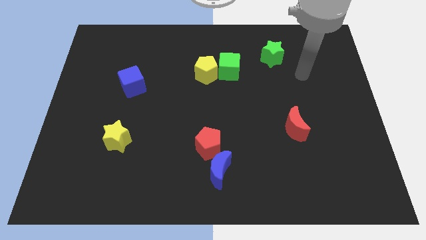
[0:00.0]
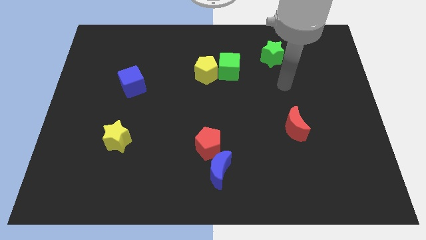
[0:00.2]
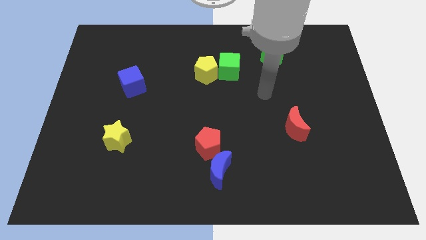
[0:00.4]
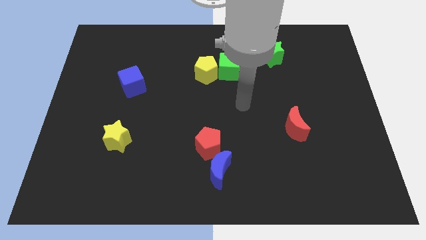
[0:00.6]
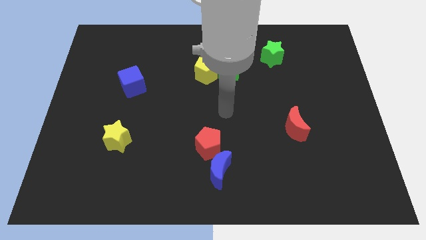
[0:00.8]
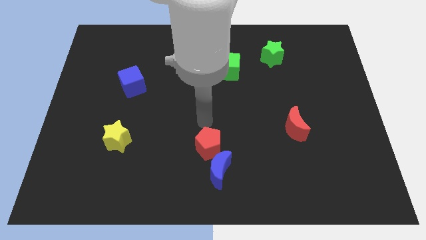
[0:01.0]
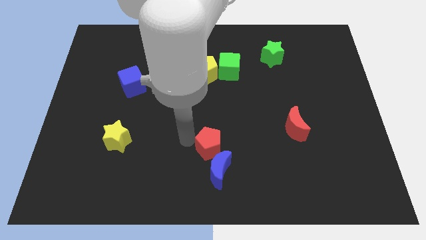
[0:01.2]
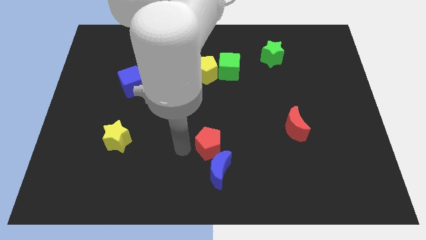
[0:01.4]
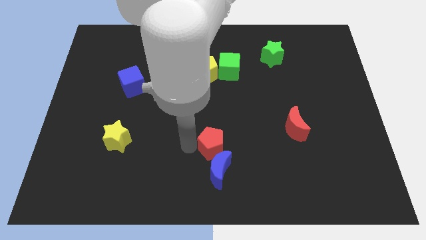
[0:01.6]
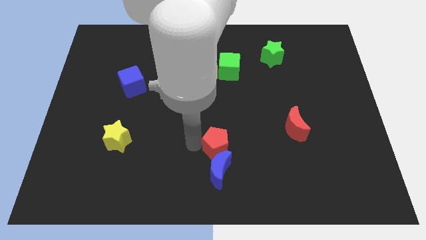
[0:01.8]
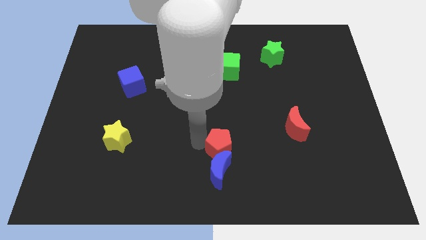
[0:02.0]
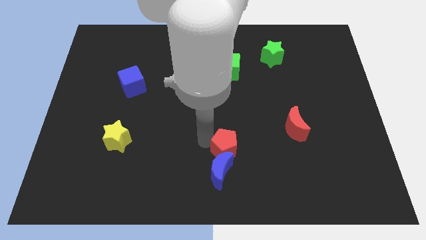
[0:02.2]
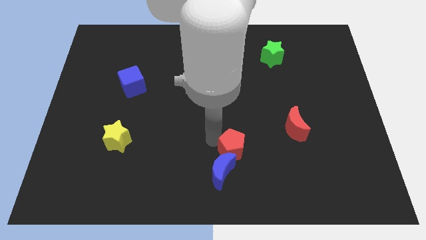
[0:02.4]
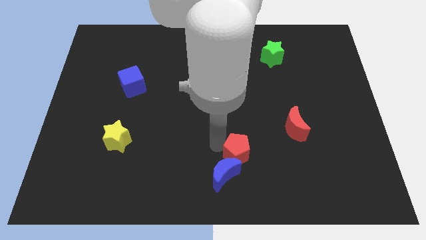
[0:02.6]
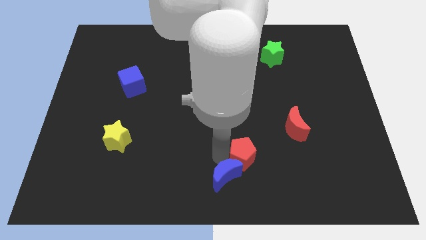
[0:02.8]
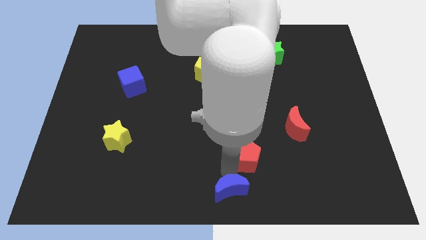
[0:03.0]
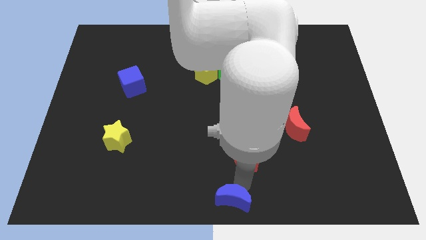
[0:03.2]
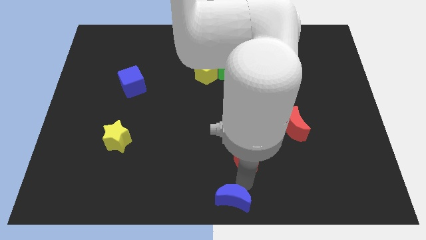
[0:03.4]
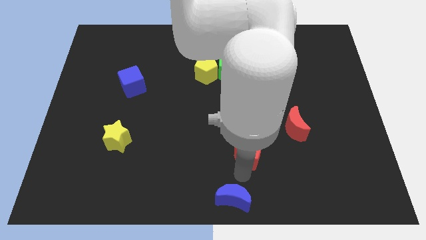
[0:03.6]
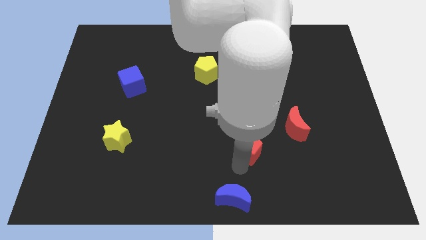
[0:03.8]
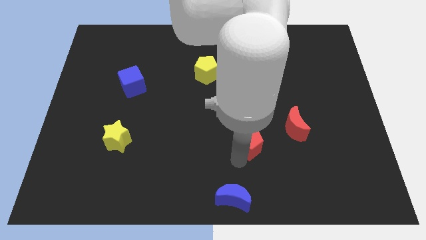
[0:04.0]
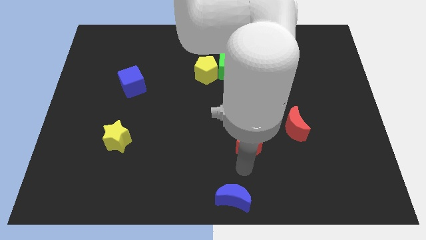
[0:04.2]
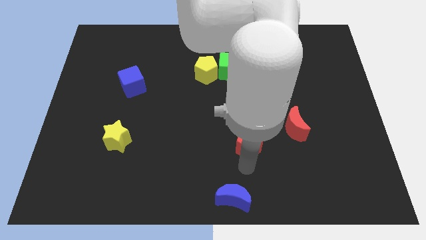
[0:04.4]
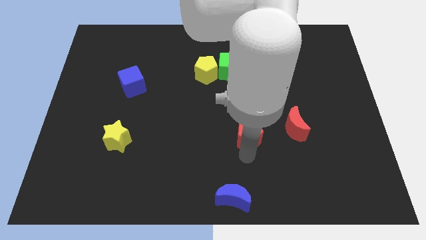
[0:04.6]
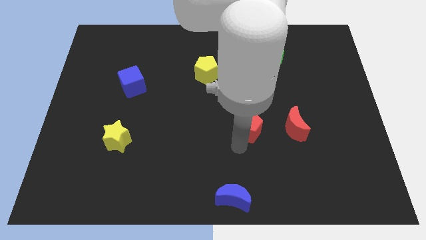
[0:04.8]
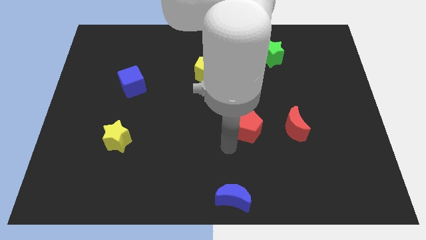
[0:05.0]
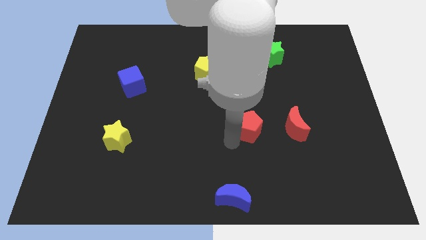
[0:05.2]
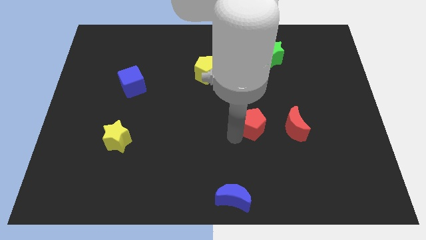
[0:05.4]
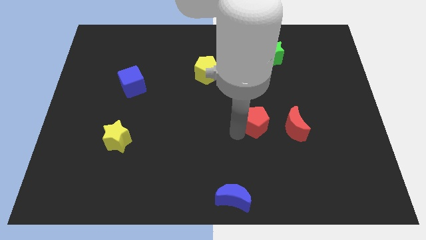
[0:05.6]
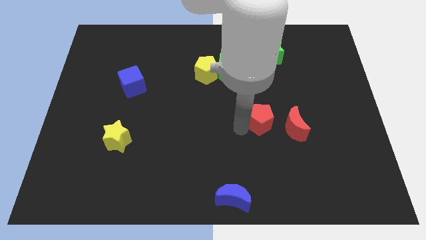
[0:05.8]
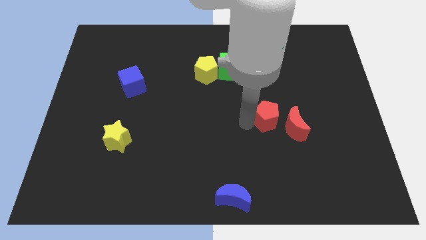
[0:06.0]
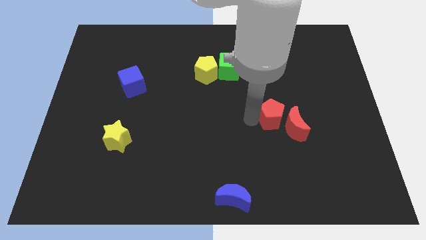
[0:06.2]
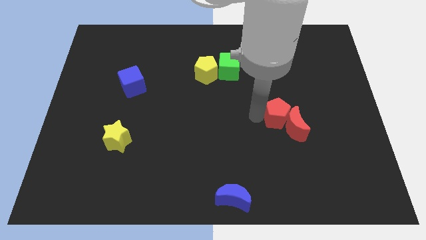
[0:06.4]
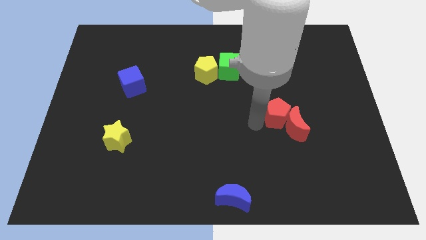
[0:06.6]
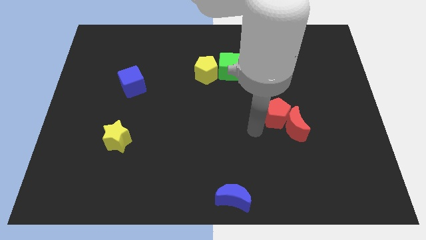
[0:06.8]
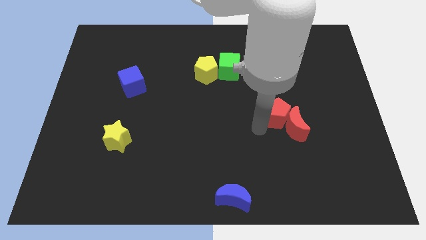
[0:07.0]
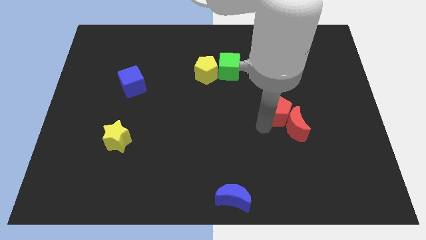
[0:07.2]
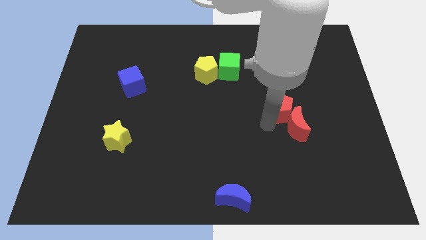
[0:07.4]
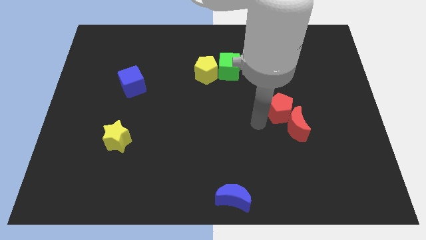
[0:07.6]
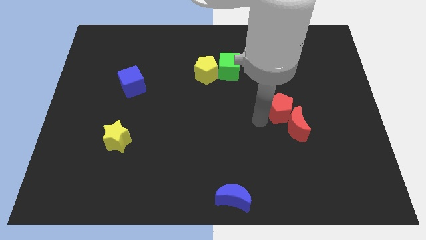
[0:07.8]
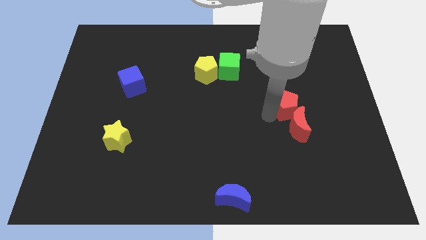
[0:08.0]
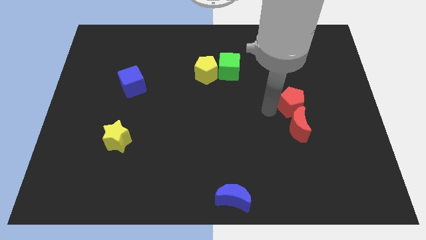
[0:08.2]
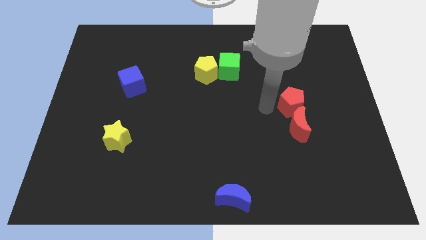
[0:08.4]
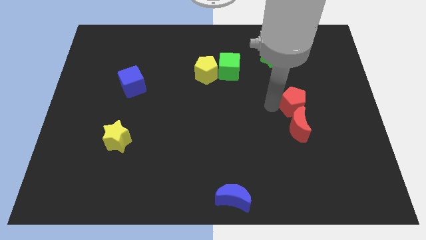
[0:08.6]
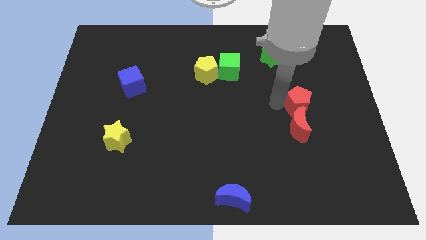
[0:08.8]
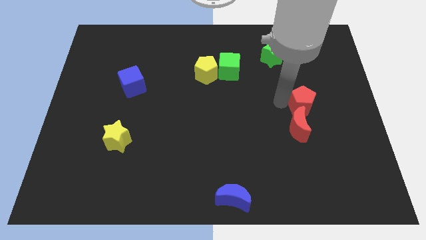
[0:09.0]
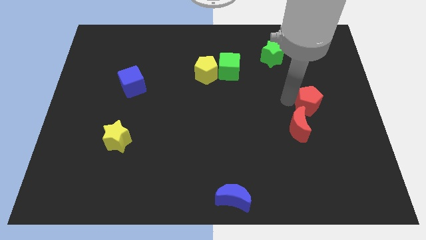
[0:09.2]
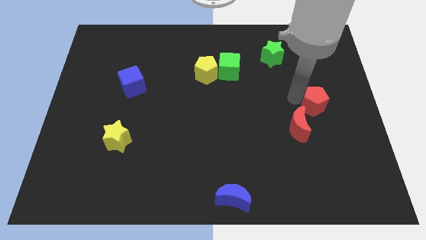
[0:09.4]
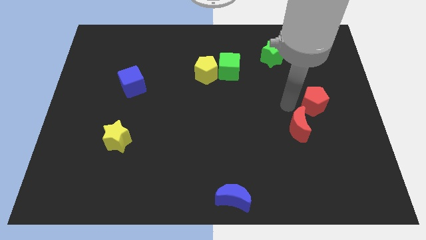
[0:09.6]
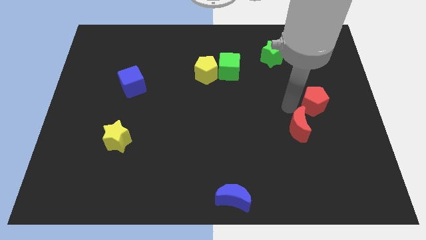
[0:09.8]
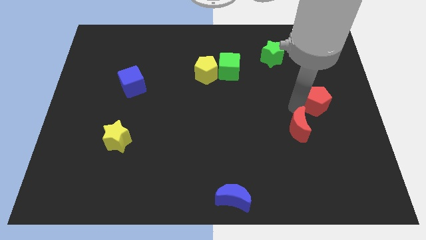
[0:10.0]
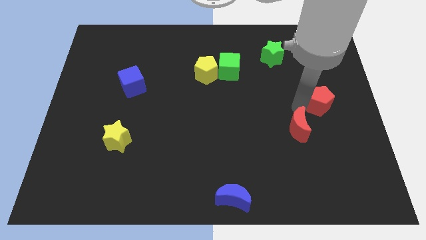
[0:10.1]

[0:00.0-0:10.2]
move the red pentagon to the right side

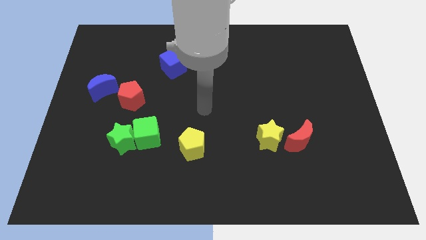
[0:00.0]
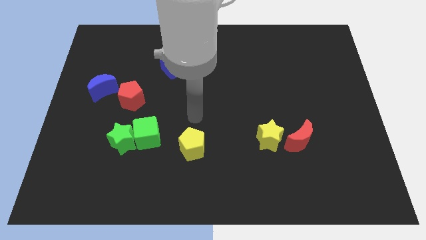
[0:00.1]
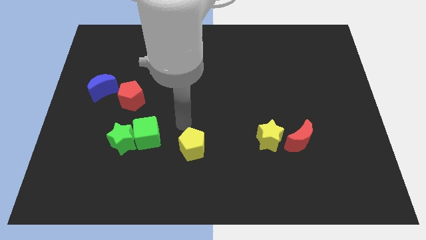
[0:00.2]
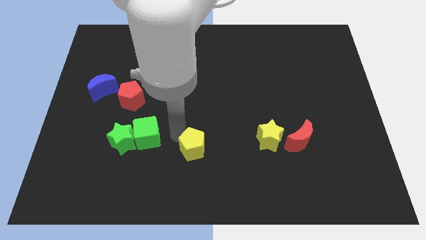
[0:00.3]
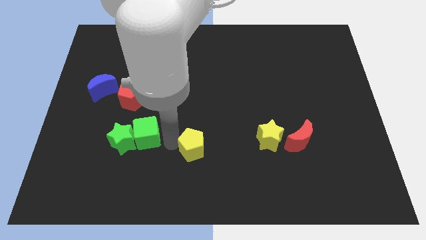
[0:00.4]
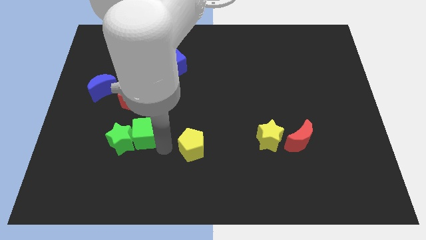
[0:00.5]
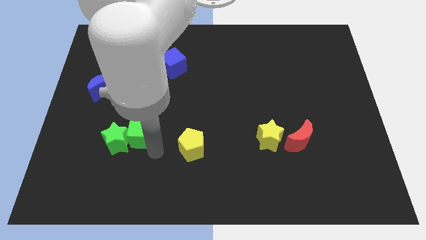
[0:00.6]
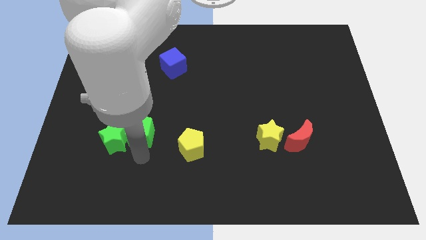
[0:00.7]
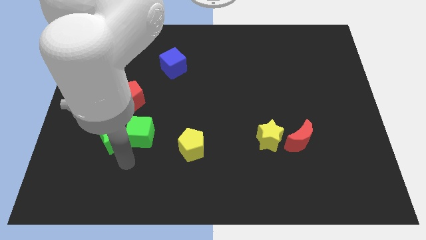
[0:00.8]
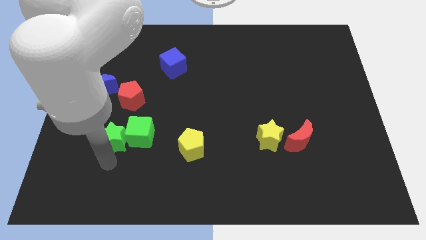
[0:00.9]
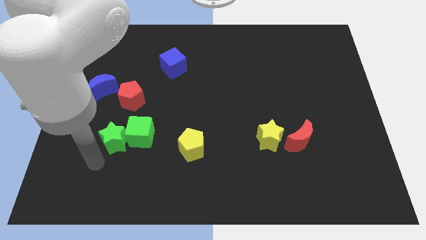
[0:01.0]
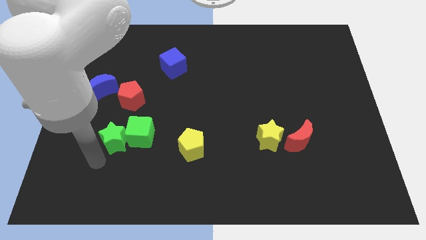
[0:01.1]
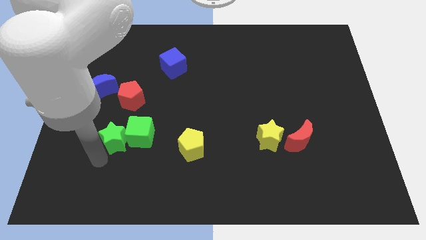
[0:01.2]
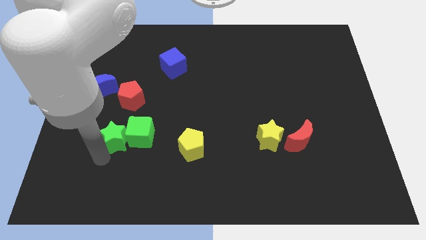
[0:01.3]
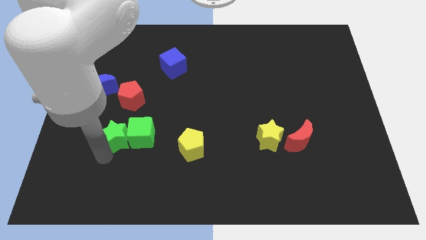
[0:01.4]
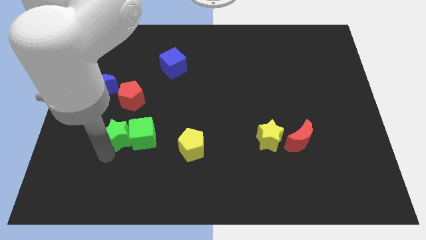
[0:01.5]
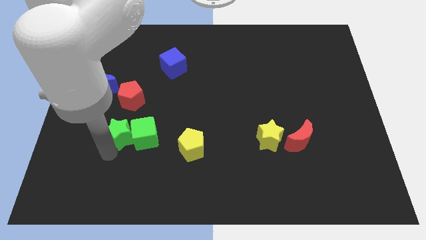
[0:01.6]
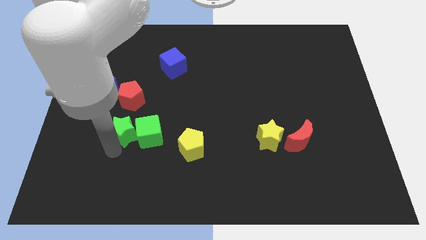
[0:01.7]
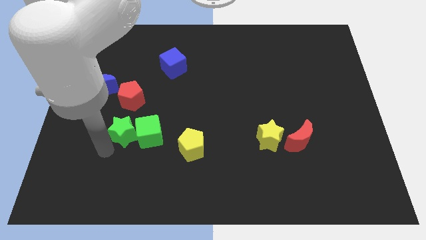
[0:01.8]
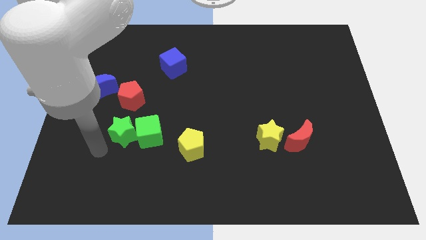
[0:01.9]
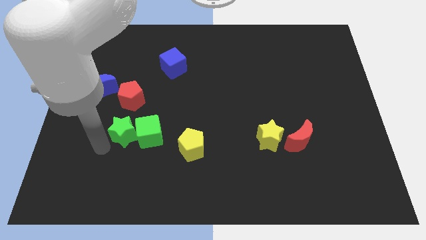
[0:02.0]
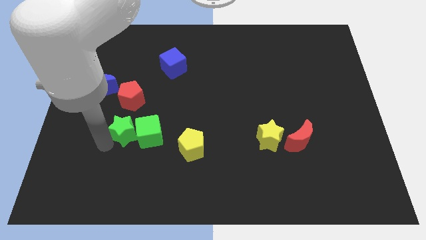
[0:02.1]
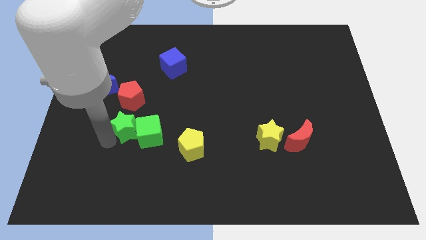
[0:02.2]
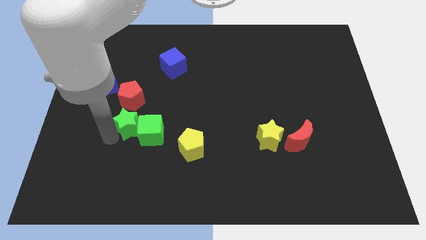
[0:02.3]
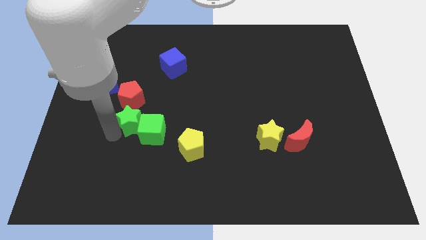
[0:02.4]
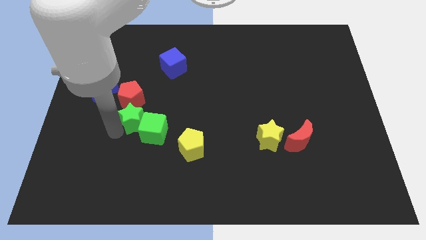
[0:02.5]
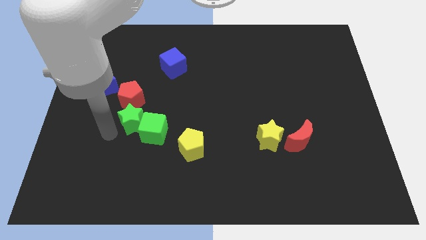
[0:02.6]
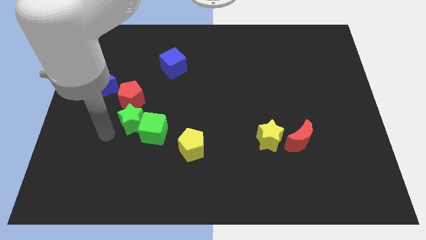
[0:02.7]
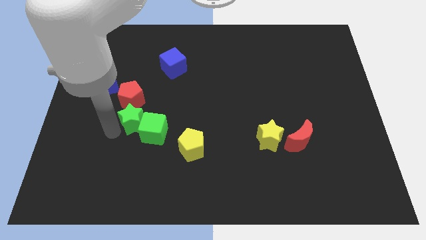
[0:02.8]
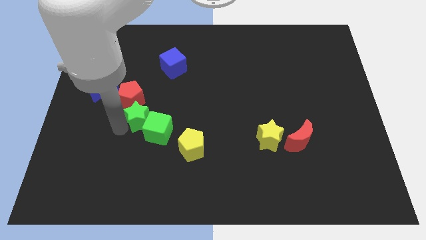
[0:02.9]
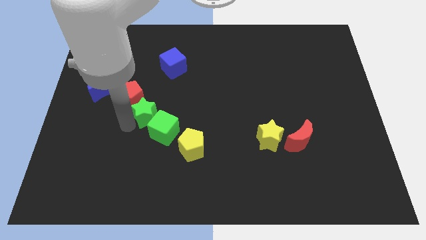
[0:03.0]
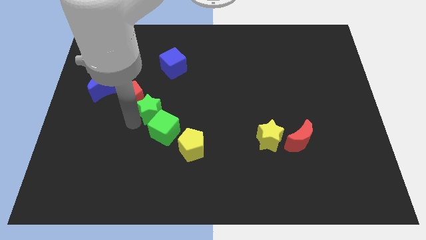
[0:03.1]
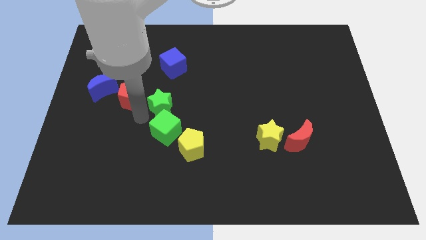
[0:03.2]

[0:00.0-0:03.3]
push the green star to the center
